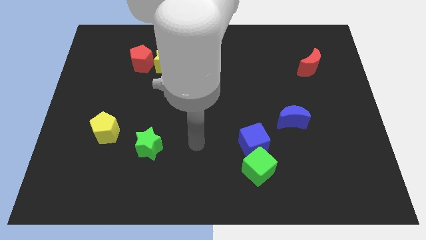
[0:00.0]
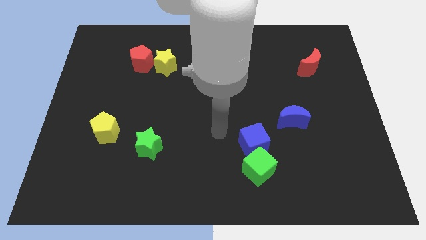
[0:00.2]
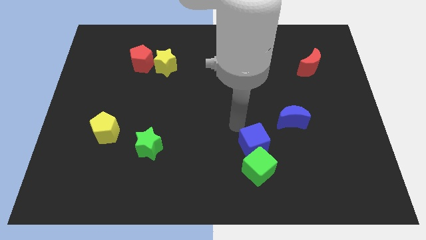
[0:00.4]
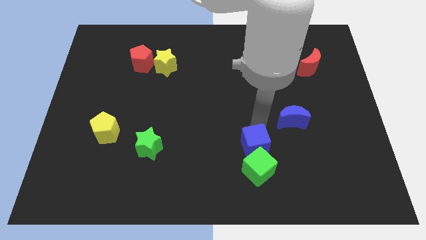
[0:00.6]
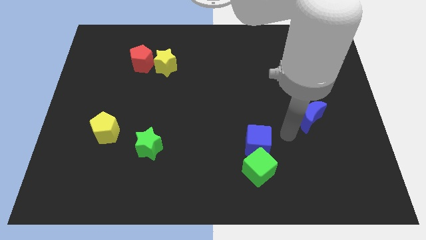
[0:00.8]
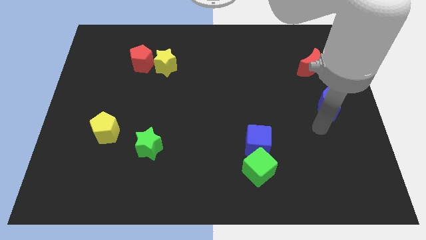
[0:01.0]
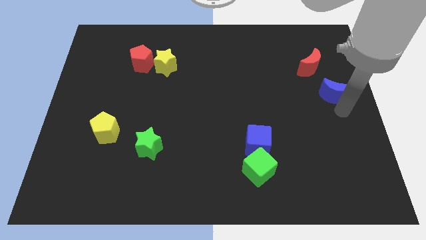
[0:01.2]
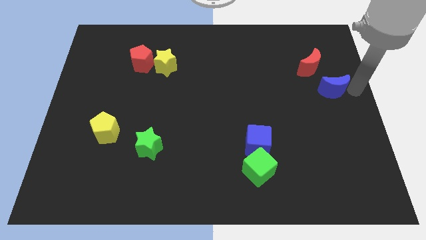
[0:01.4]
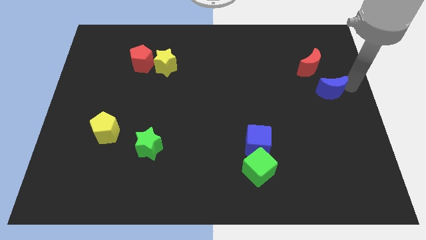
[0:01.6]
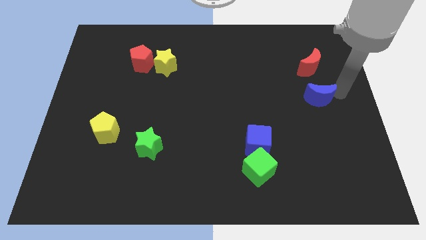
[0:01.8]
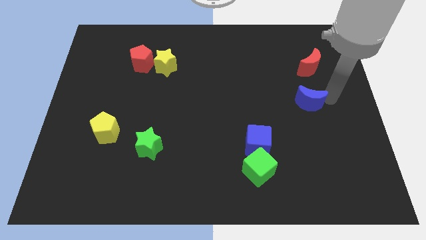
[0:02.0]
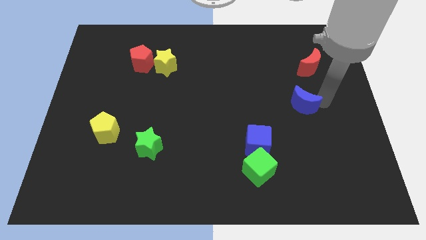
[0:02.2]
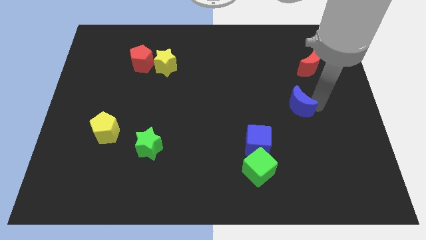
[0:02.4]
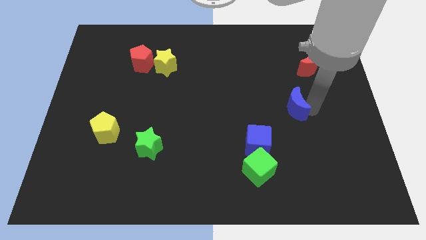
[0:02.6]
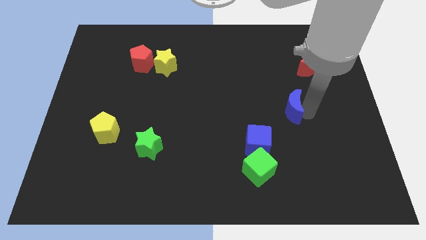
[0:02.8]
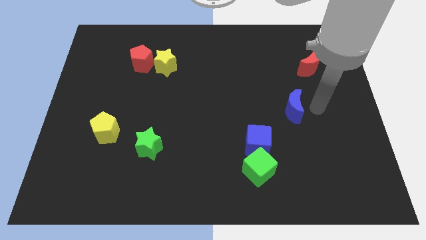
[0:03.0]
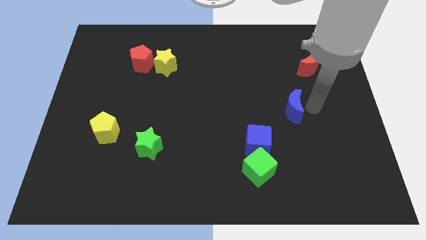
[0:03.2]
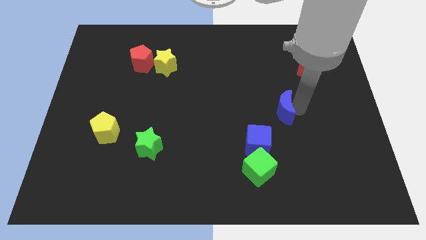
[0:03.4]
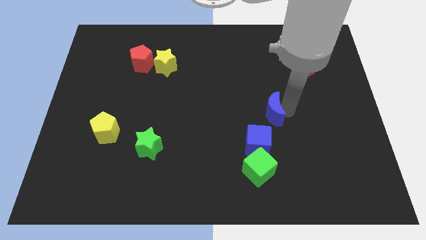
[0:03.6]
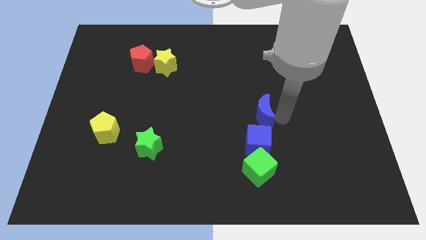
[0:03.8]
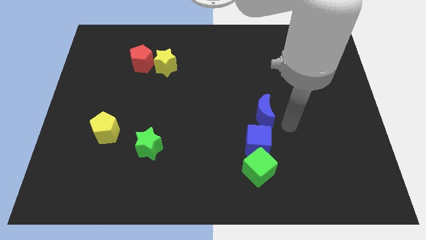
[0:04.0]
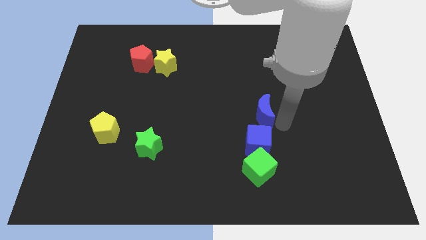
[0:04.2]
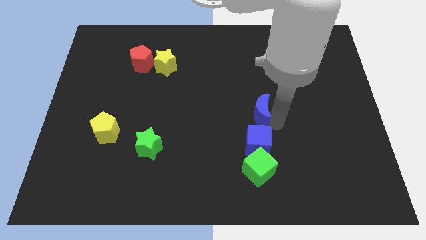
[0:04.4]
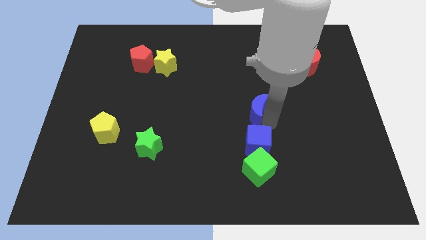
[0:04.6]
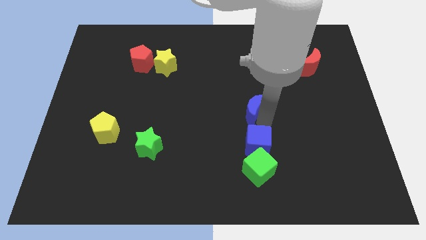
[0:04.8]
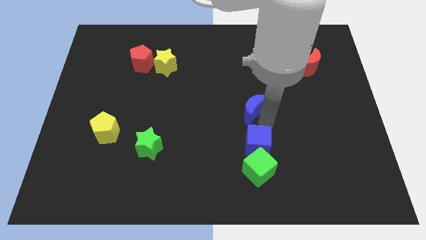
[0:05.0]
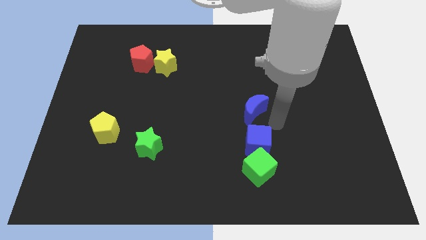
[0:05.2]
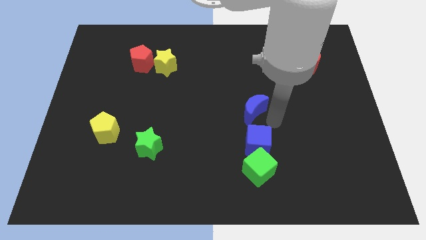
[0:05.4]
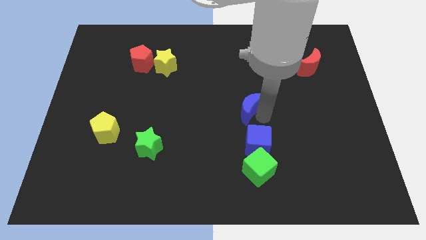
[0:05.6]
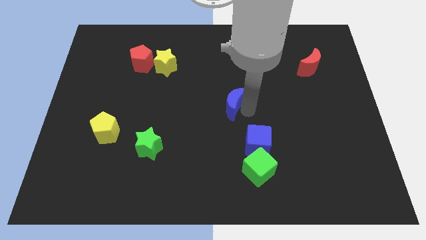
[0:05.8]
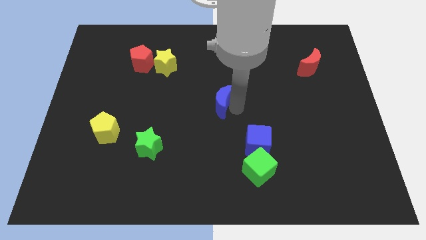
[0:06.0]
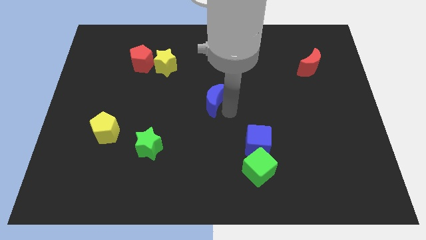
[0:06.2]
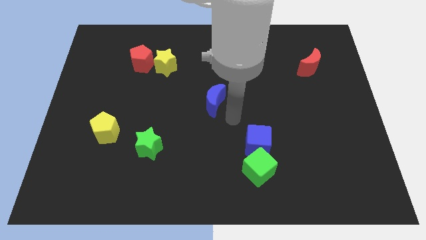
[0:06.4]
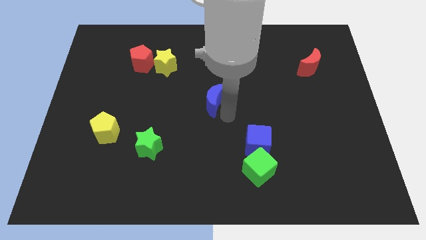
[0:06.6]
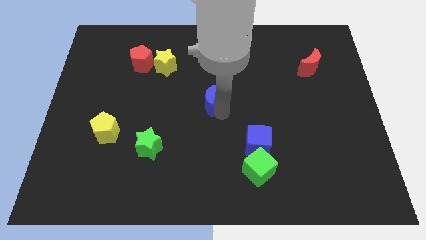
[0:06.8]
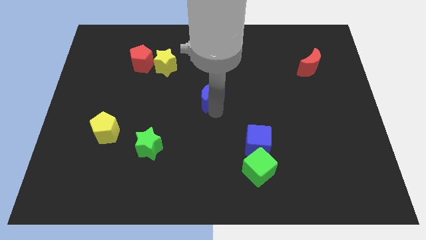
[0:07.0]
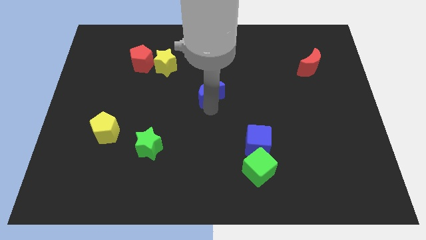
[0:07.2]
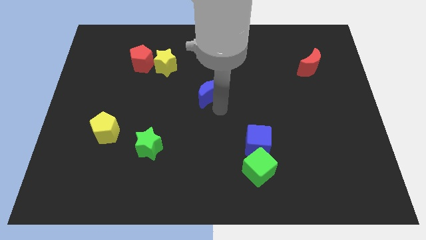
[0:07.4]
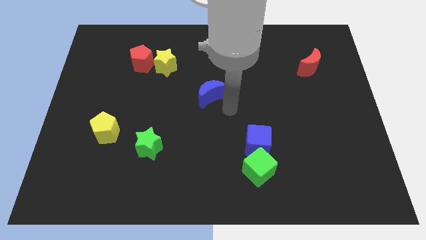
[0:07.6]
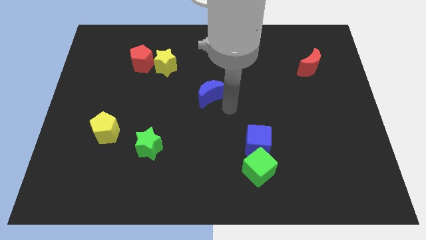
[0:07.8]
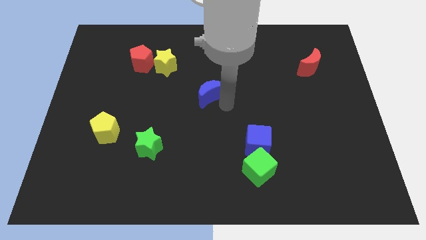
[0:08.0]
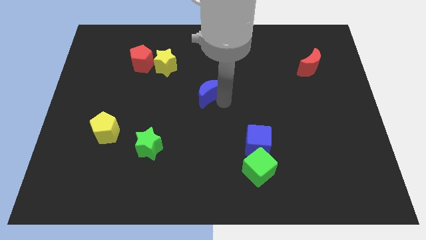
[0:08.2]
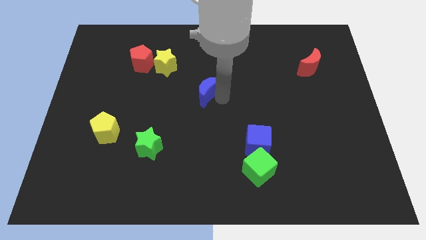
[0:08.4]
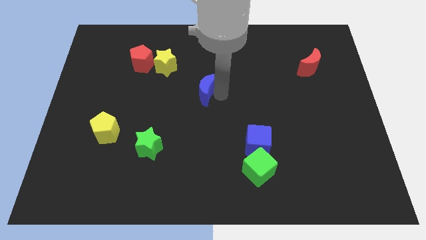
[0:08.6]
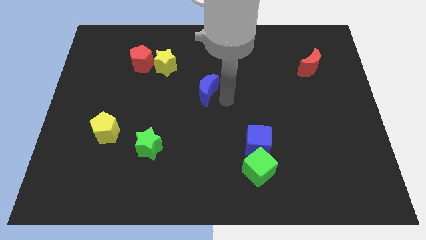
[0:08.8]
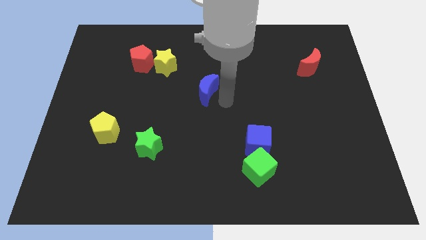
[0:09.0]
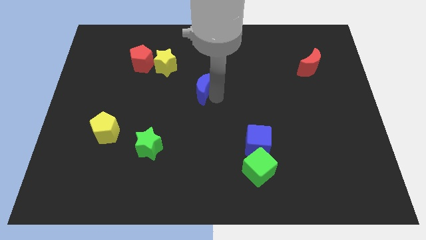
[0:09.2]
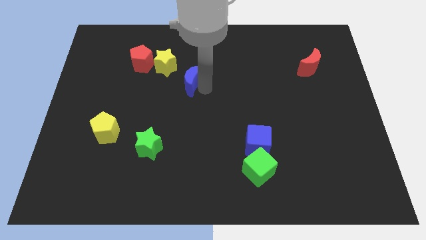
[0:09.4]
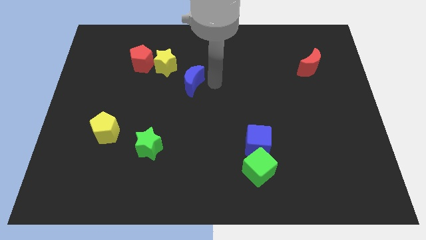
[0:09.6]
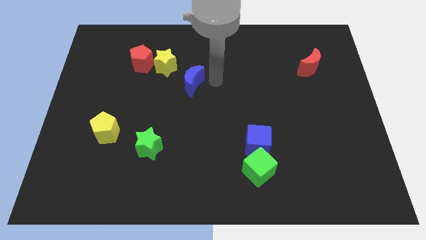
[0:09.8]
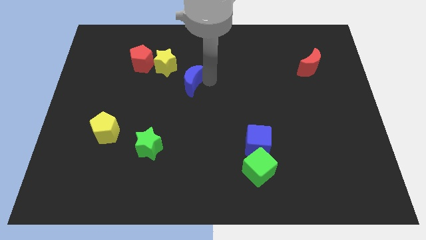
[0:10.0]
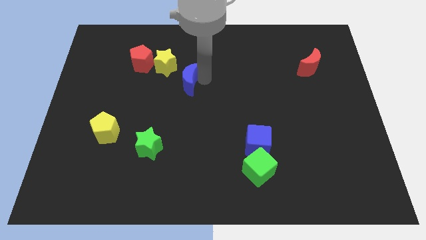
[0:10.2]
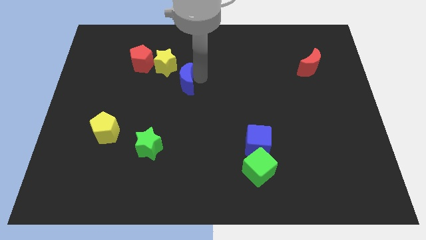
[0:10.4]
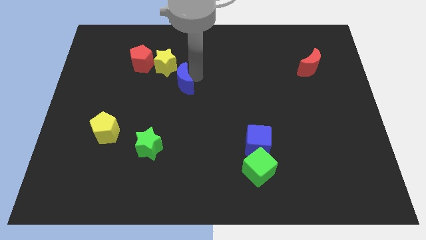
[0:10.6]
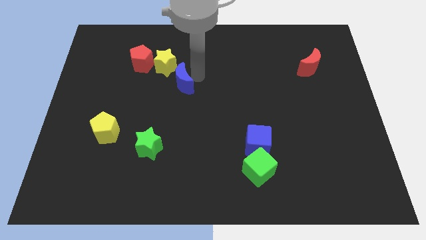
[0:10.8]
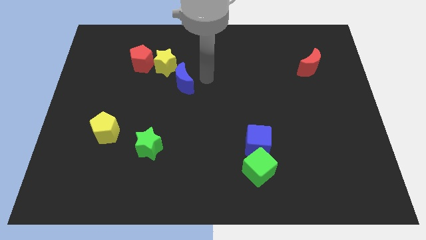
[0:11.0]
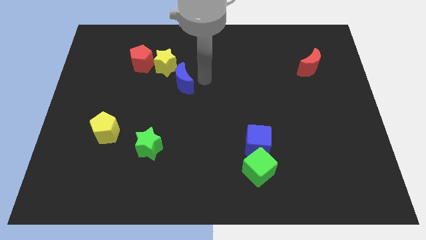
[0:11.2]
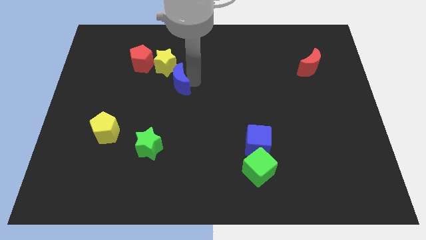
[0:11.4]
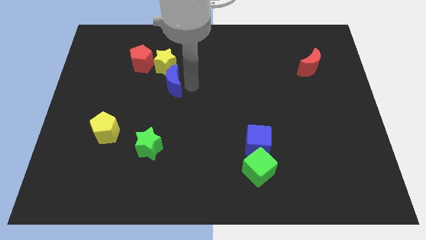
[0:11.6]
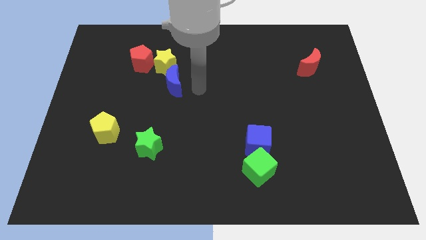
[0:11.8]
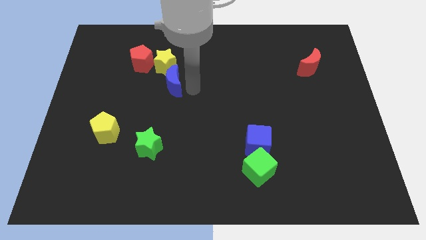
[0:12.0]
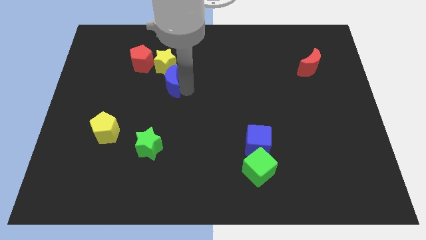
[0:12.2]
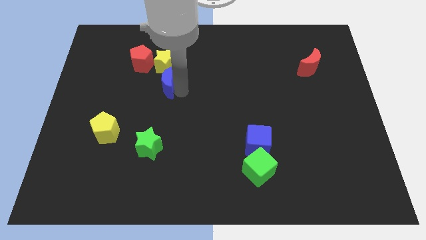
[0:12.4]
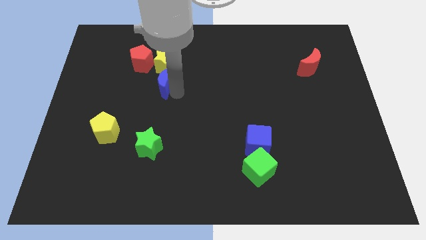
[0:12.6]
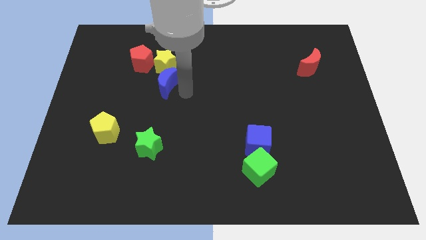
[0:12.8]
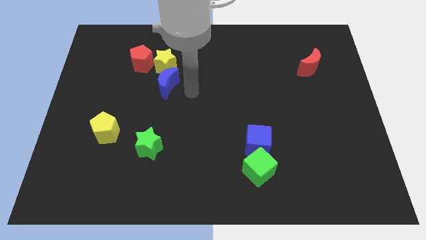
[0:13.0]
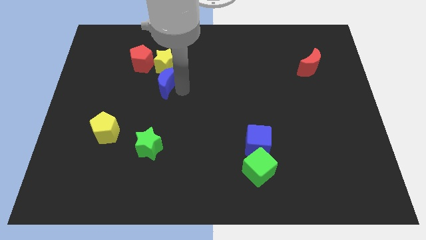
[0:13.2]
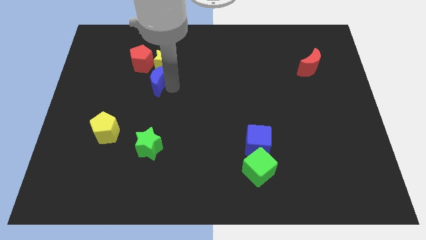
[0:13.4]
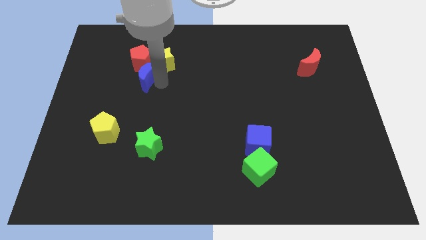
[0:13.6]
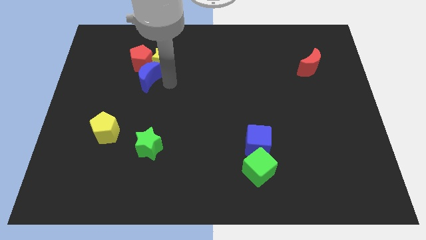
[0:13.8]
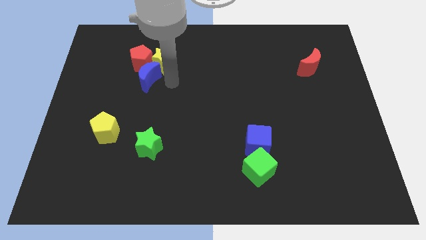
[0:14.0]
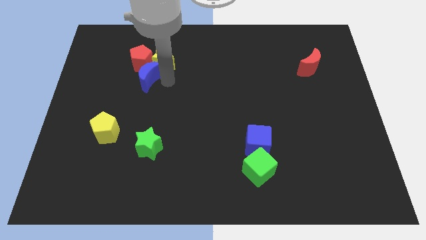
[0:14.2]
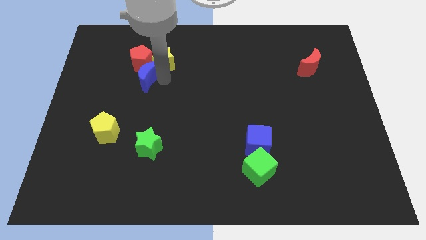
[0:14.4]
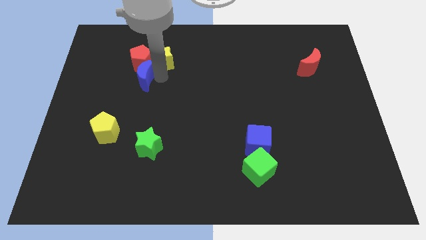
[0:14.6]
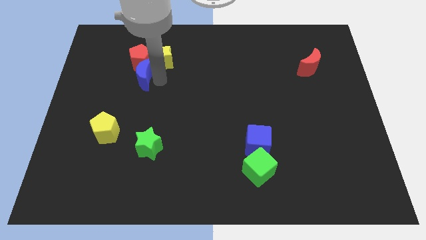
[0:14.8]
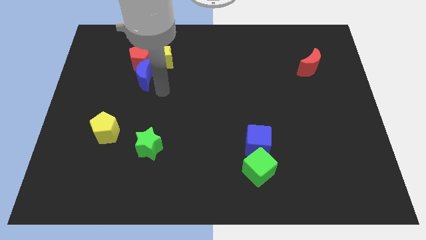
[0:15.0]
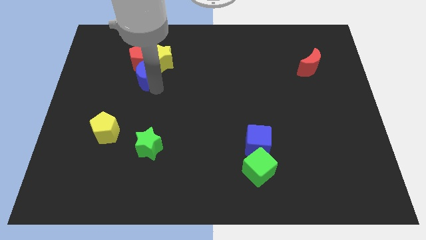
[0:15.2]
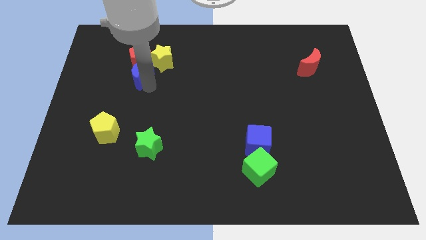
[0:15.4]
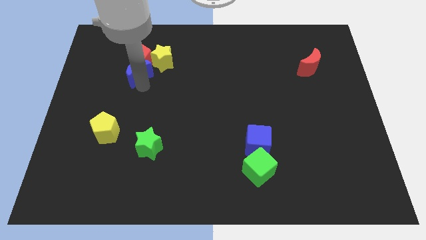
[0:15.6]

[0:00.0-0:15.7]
put the blue moon left of the yellow star
